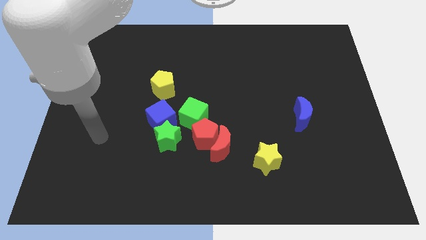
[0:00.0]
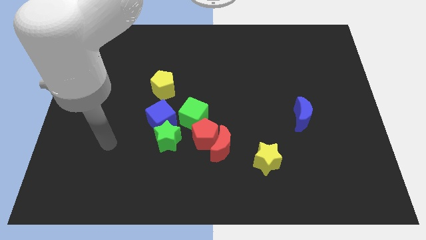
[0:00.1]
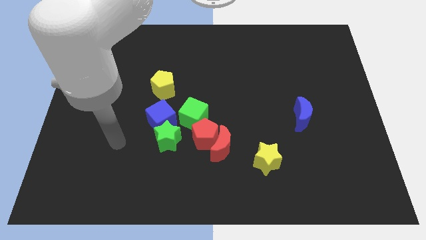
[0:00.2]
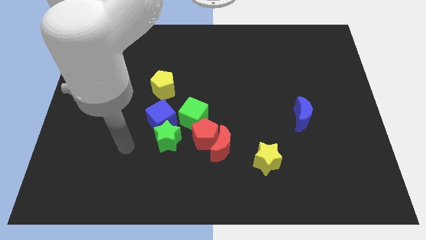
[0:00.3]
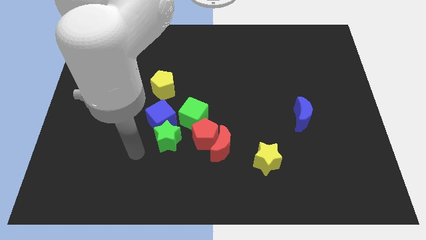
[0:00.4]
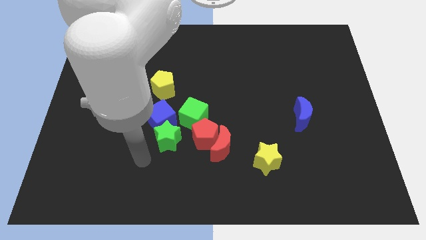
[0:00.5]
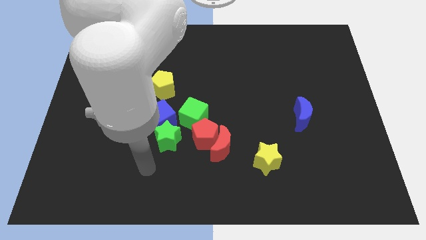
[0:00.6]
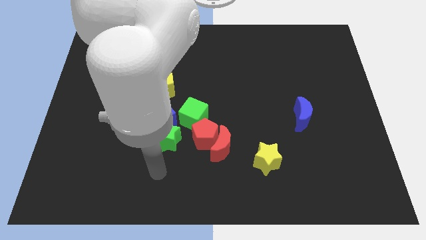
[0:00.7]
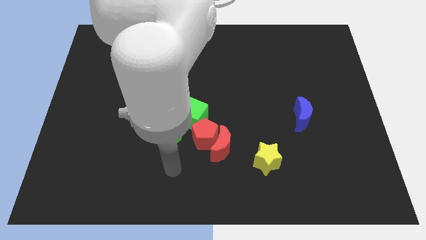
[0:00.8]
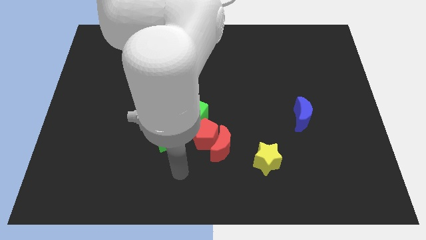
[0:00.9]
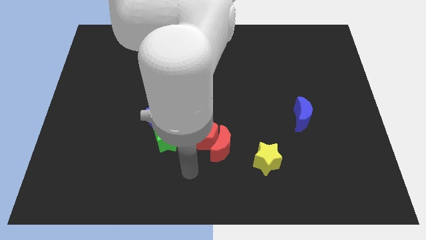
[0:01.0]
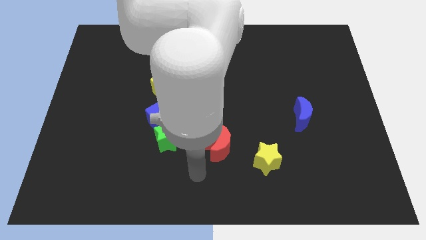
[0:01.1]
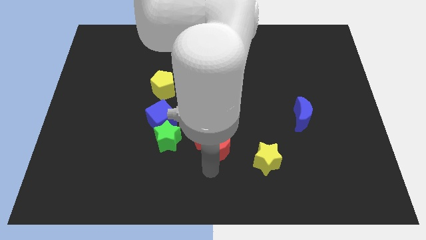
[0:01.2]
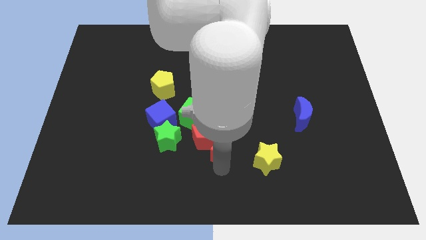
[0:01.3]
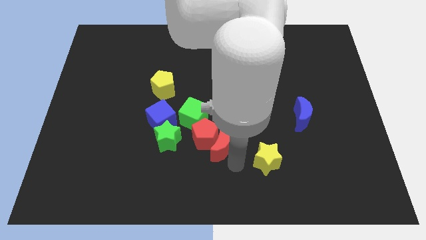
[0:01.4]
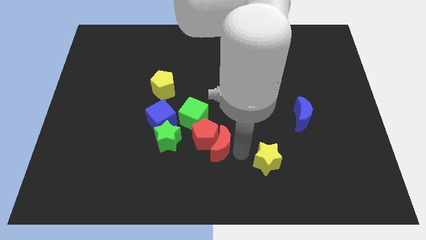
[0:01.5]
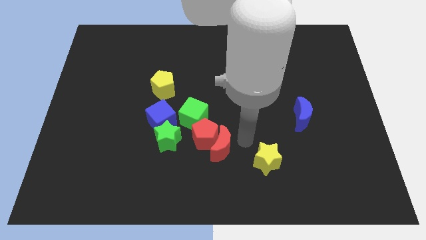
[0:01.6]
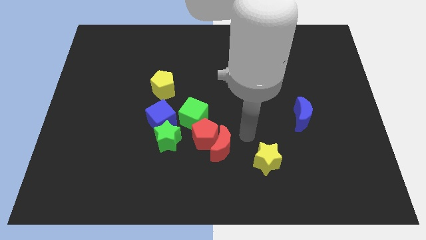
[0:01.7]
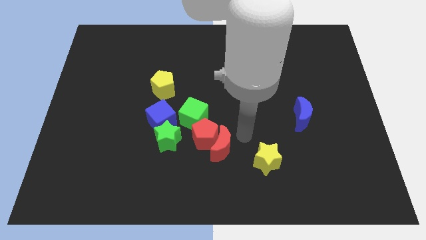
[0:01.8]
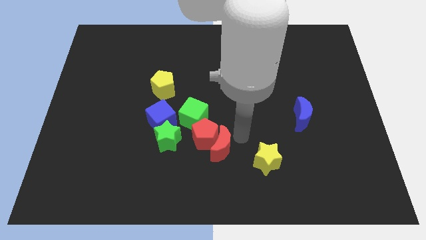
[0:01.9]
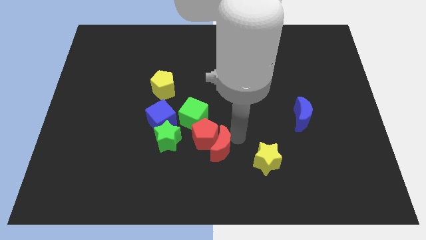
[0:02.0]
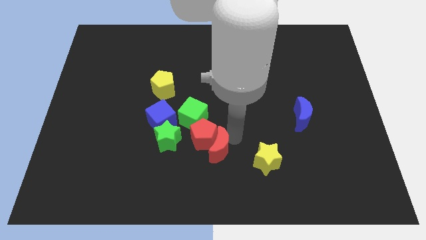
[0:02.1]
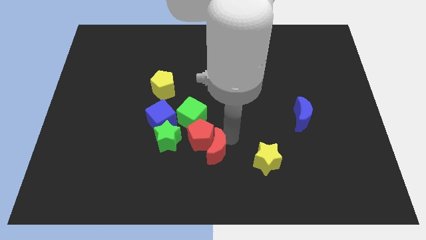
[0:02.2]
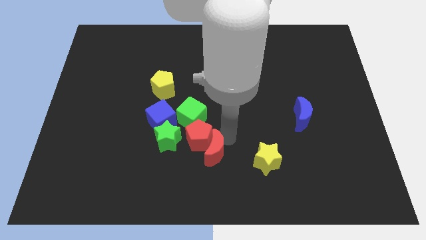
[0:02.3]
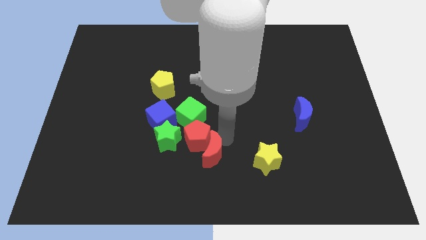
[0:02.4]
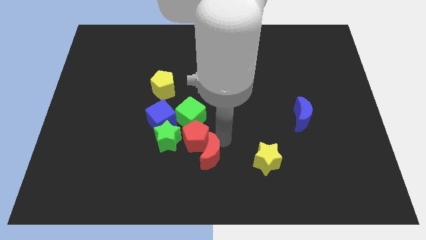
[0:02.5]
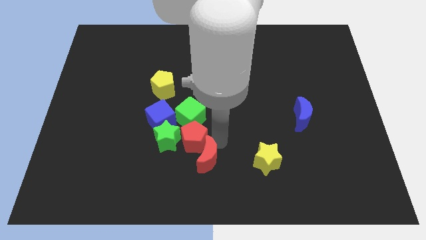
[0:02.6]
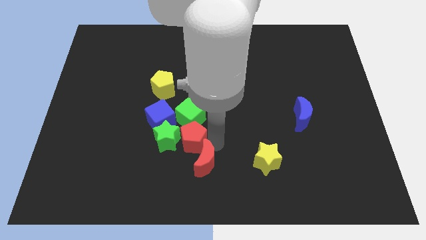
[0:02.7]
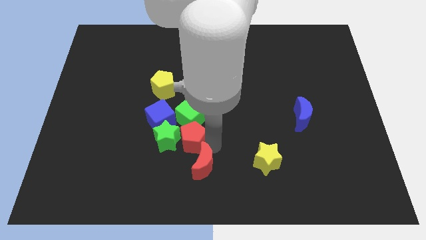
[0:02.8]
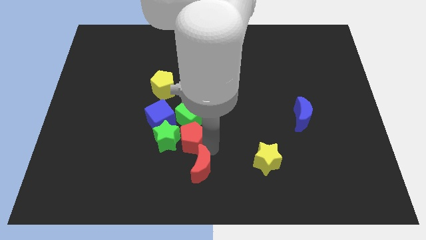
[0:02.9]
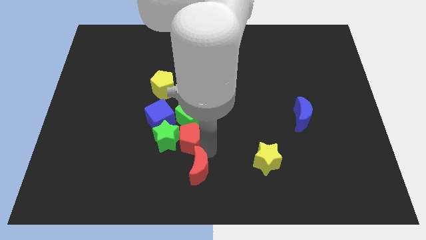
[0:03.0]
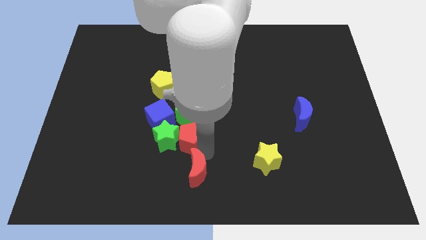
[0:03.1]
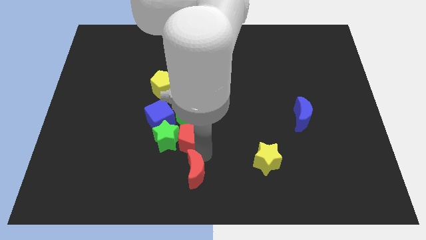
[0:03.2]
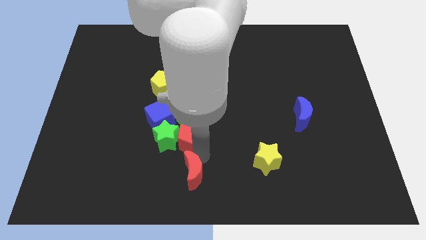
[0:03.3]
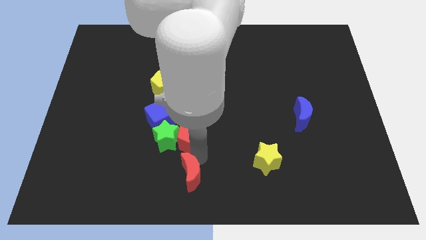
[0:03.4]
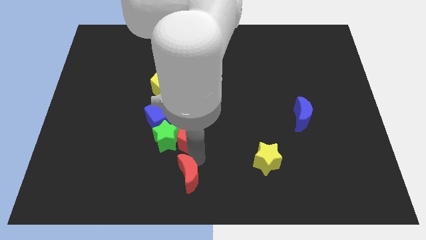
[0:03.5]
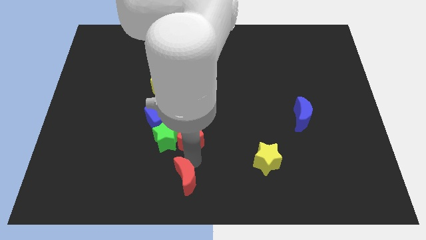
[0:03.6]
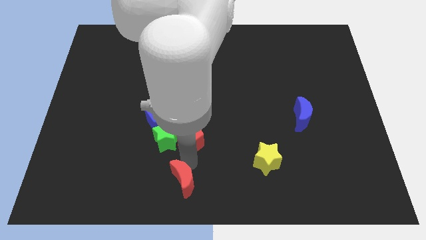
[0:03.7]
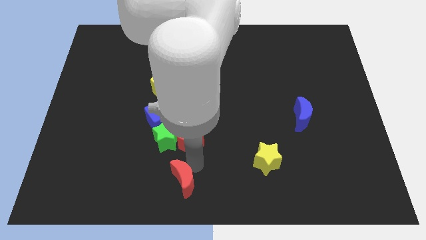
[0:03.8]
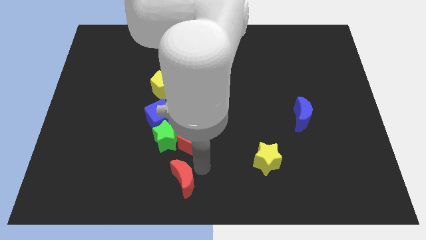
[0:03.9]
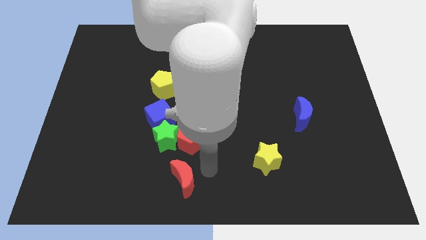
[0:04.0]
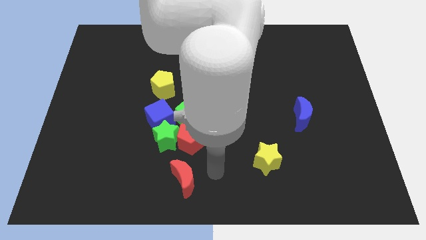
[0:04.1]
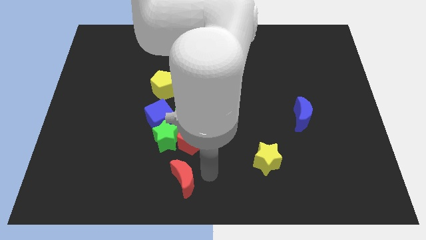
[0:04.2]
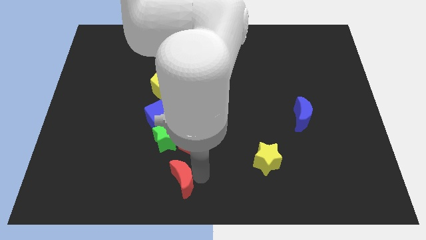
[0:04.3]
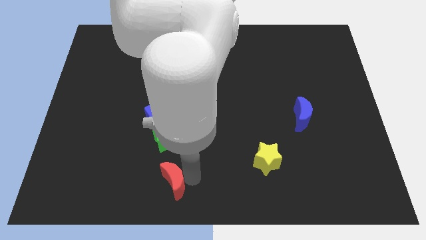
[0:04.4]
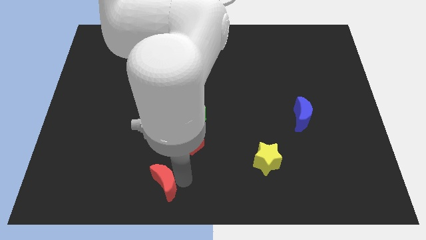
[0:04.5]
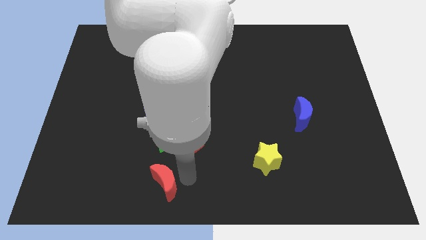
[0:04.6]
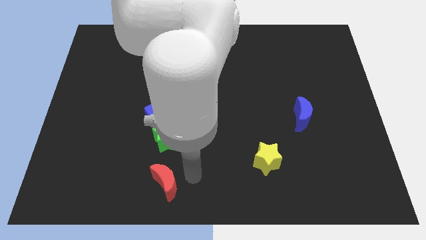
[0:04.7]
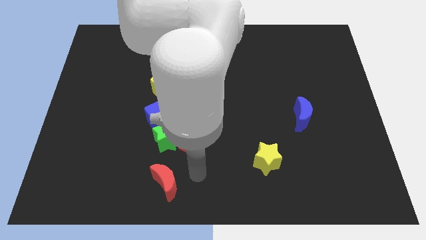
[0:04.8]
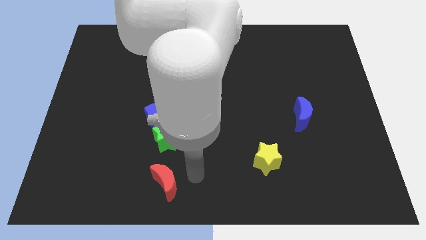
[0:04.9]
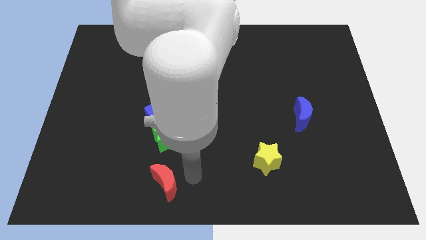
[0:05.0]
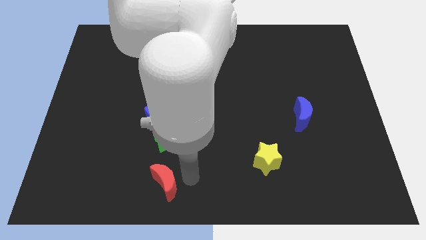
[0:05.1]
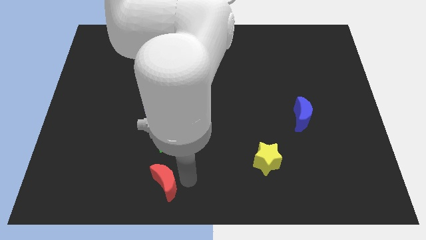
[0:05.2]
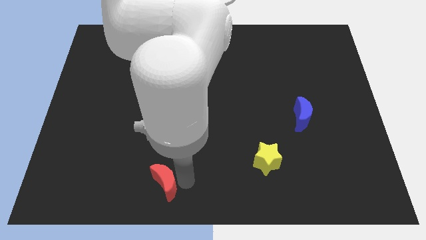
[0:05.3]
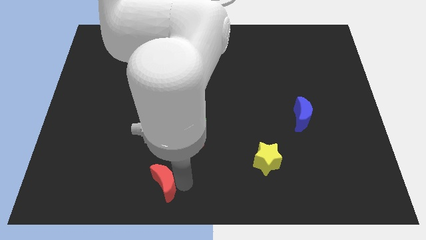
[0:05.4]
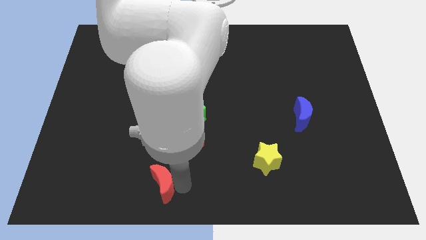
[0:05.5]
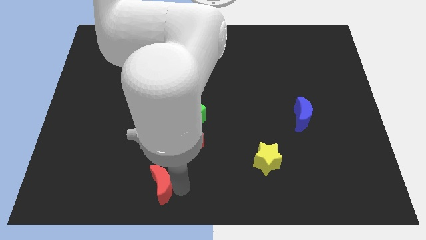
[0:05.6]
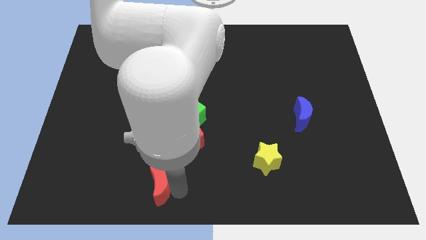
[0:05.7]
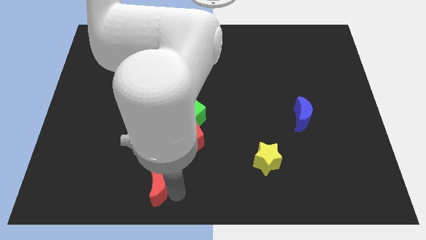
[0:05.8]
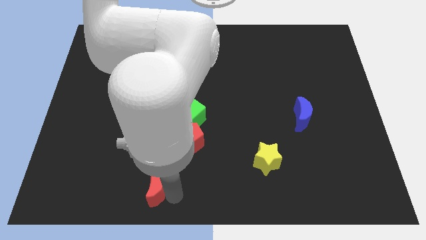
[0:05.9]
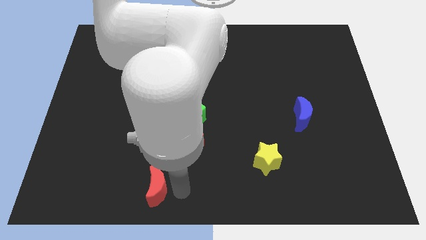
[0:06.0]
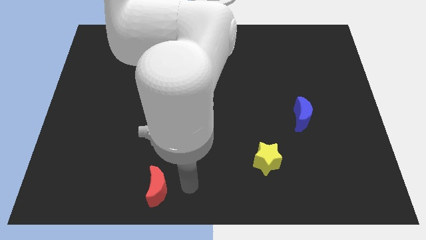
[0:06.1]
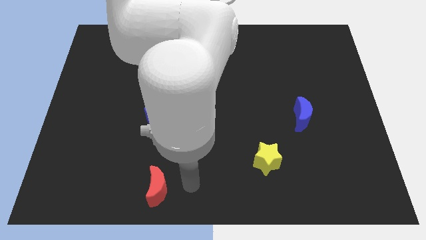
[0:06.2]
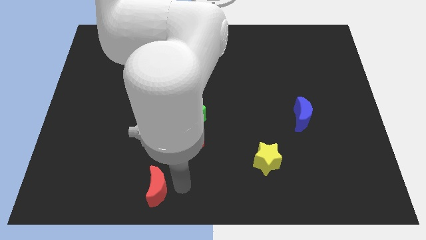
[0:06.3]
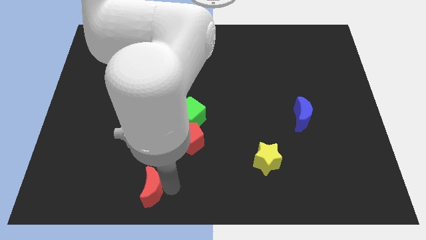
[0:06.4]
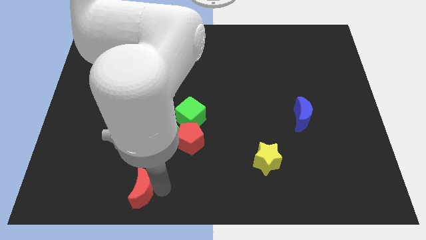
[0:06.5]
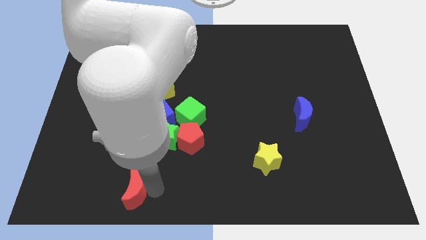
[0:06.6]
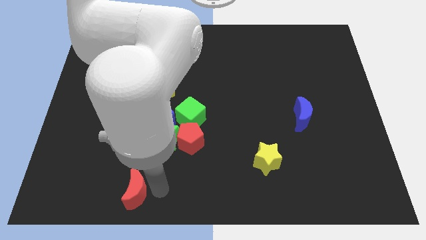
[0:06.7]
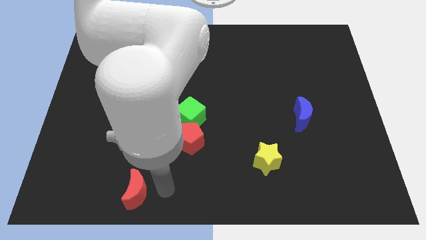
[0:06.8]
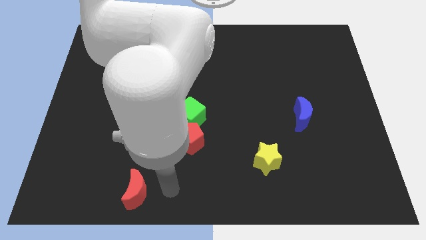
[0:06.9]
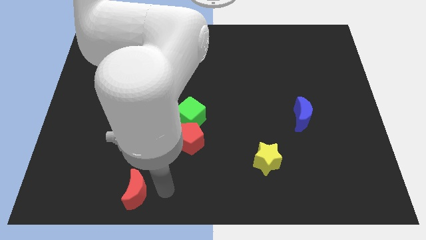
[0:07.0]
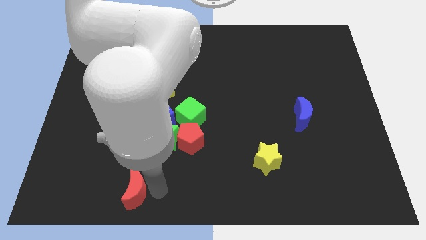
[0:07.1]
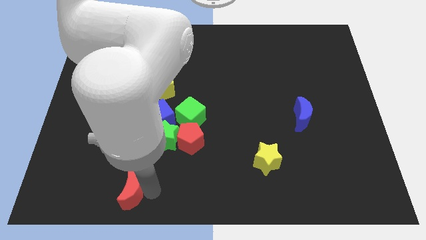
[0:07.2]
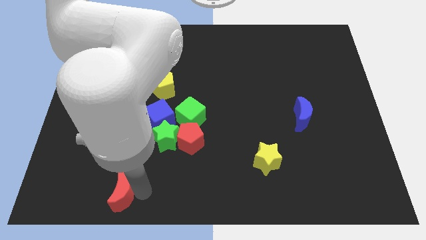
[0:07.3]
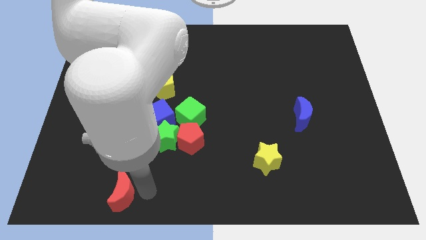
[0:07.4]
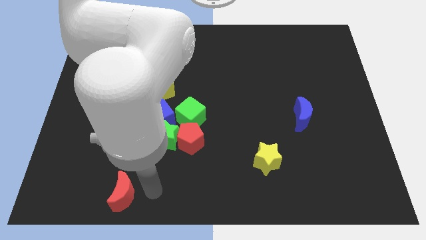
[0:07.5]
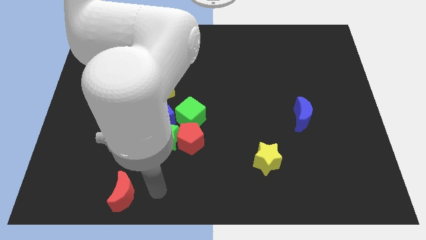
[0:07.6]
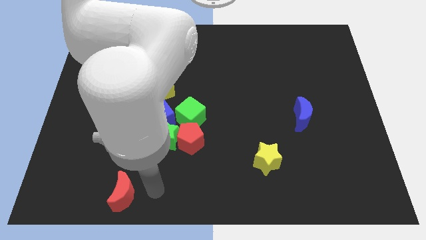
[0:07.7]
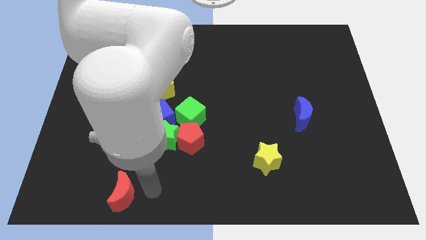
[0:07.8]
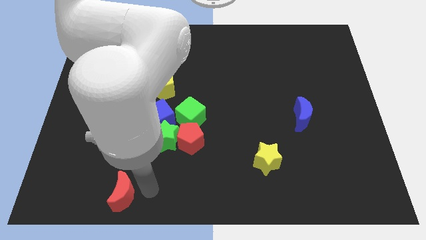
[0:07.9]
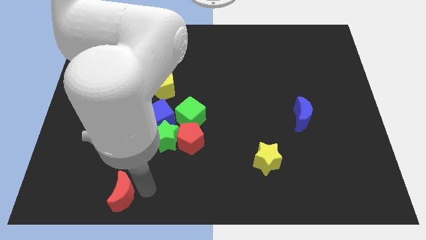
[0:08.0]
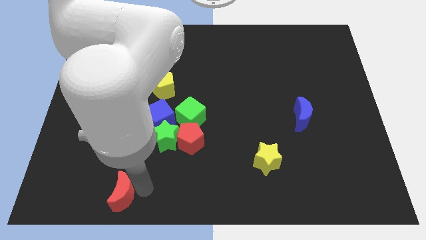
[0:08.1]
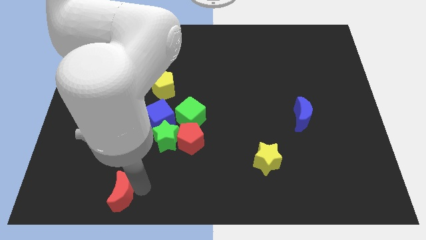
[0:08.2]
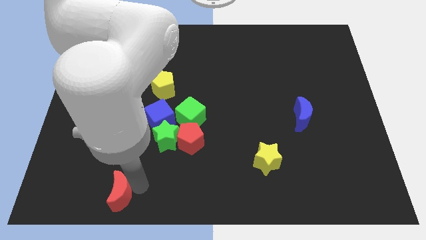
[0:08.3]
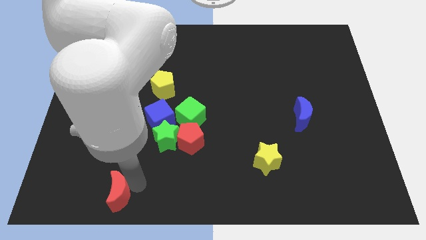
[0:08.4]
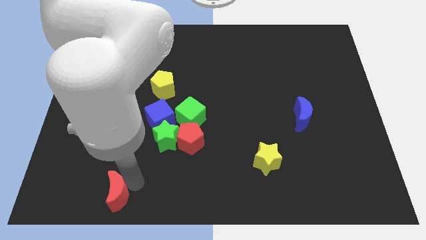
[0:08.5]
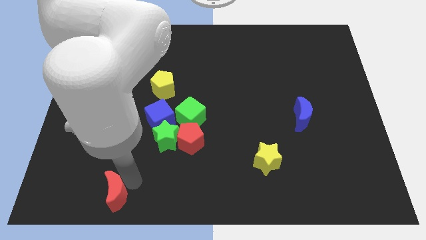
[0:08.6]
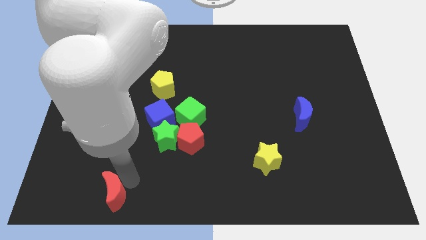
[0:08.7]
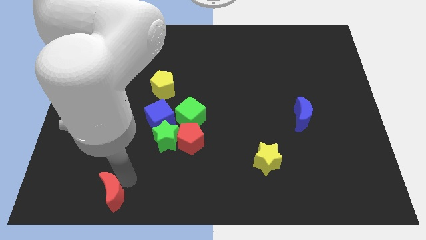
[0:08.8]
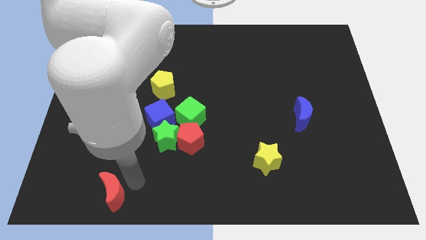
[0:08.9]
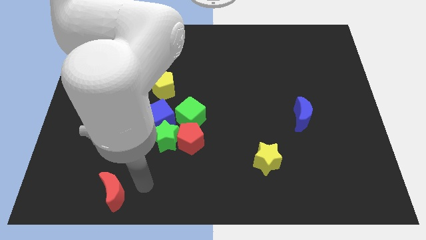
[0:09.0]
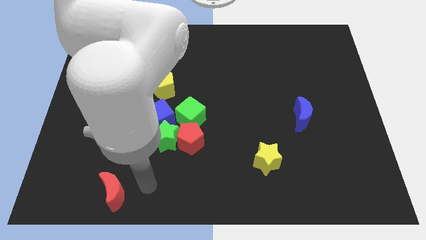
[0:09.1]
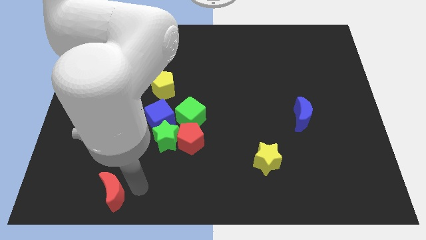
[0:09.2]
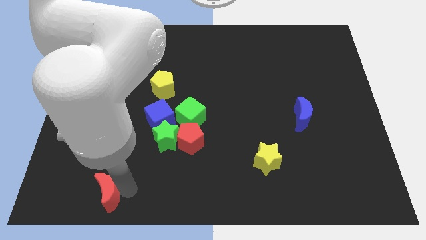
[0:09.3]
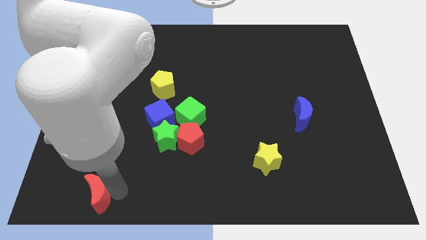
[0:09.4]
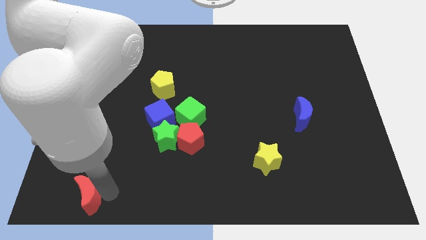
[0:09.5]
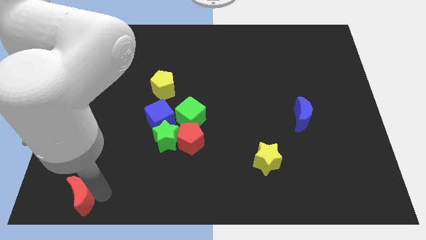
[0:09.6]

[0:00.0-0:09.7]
move the red moon to the bottom left corner
